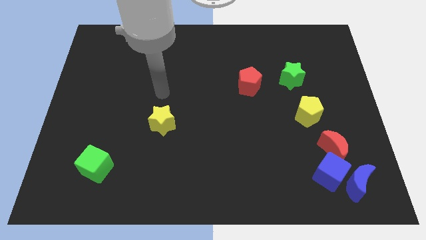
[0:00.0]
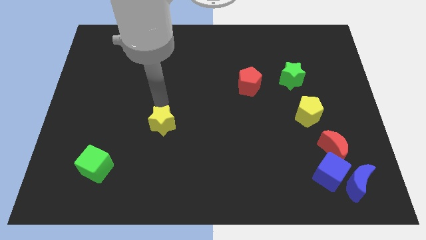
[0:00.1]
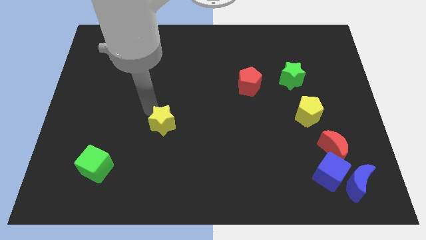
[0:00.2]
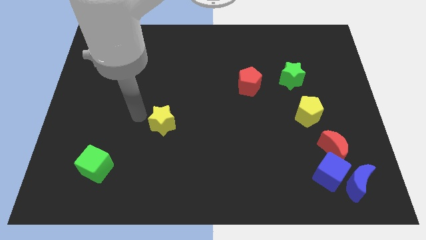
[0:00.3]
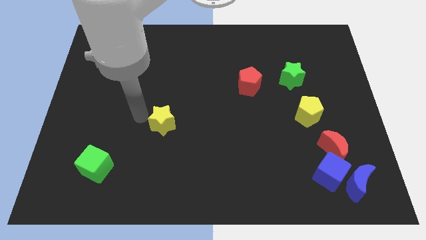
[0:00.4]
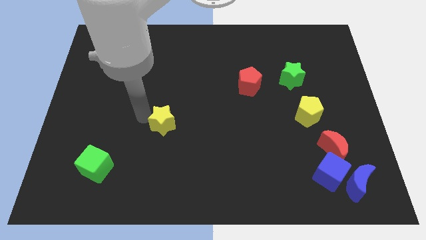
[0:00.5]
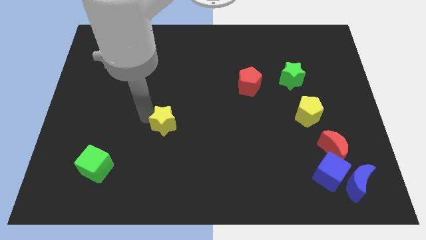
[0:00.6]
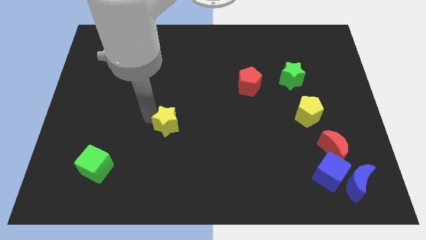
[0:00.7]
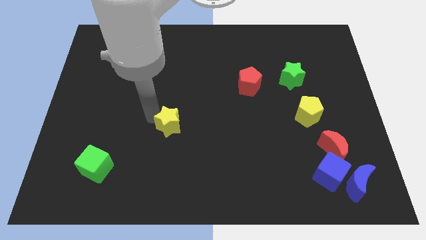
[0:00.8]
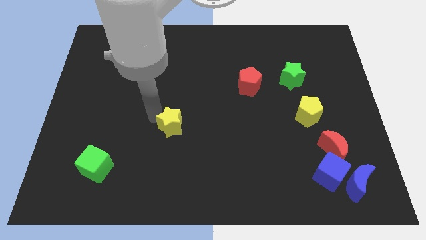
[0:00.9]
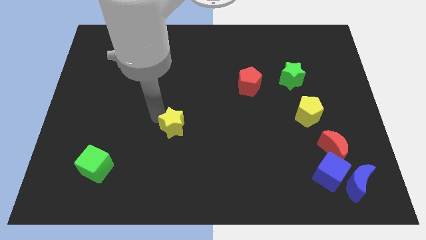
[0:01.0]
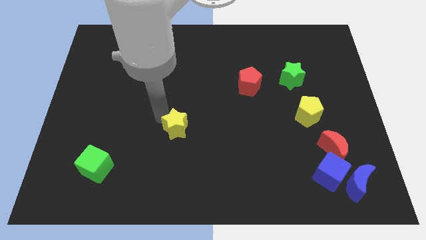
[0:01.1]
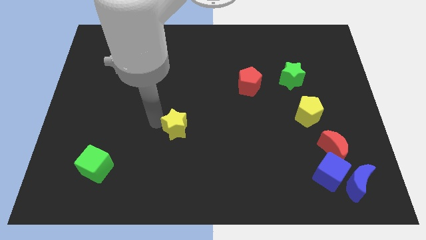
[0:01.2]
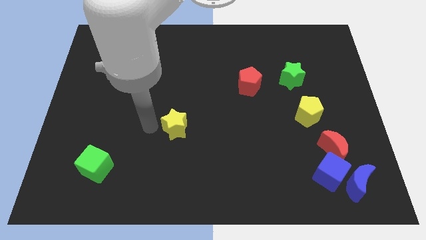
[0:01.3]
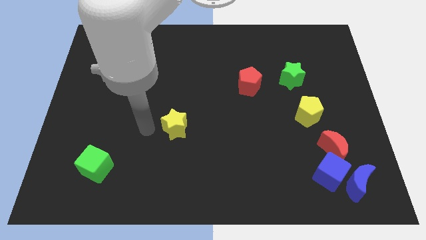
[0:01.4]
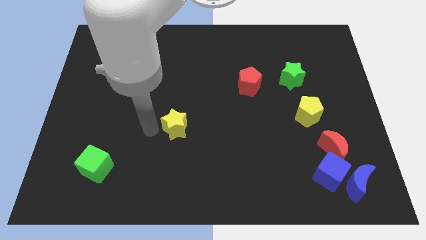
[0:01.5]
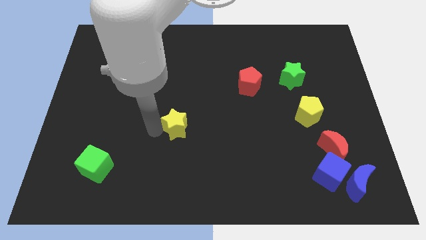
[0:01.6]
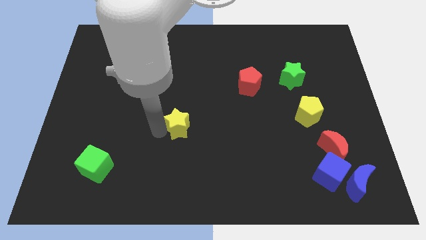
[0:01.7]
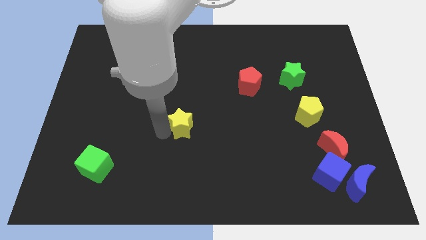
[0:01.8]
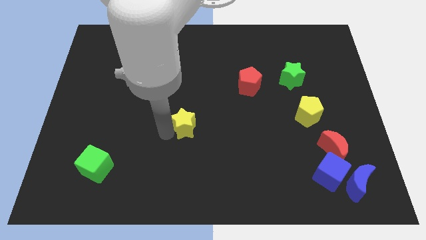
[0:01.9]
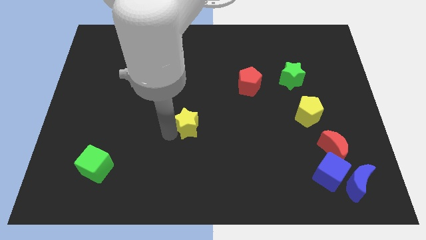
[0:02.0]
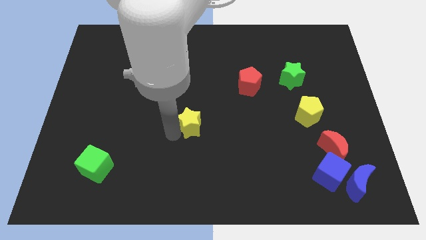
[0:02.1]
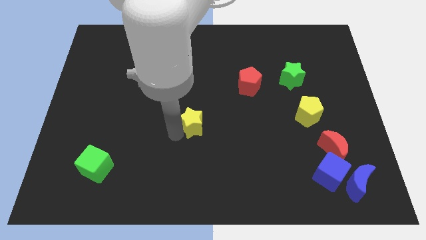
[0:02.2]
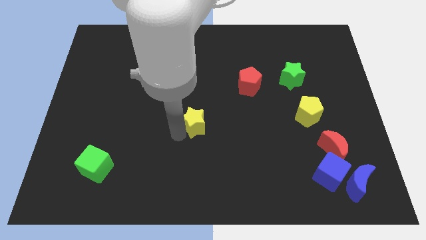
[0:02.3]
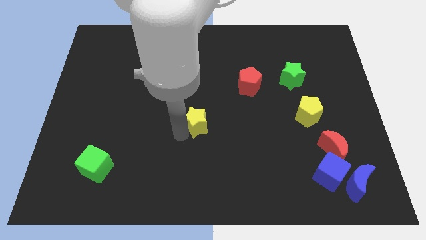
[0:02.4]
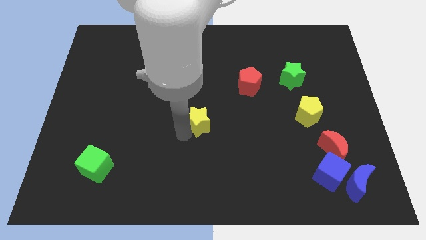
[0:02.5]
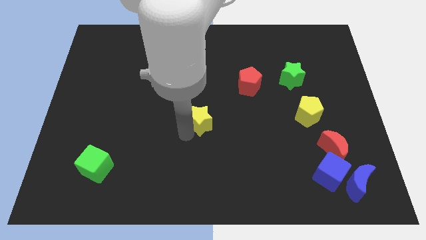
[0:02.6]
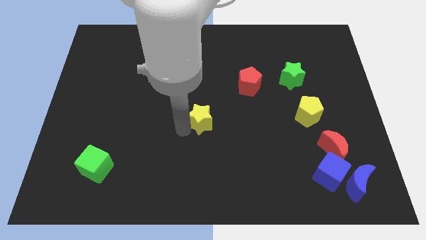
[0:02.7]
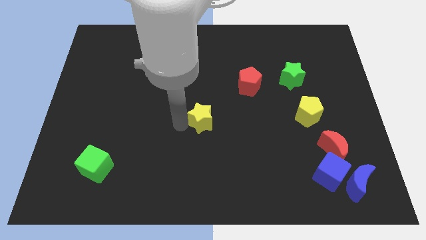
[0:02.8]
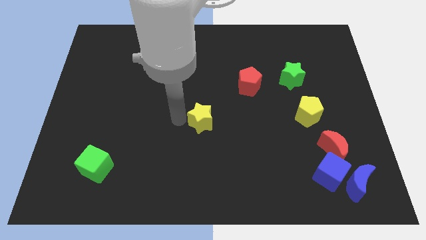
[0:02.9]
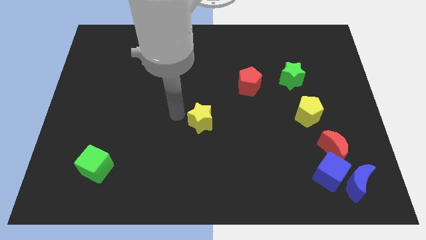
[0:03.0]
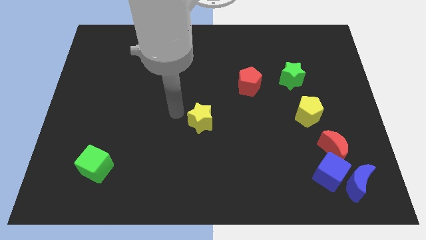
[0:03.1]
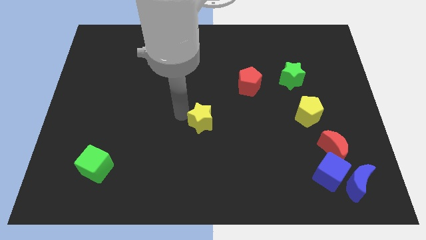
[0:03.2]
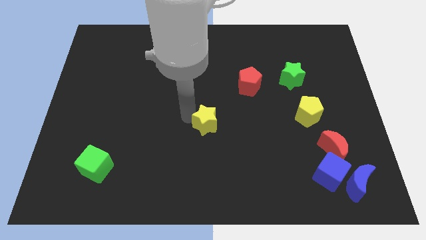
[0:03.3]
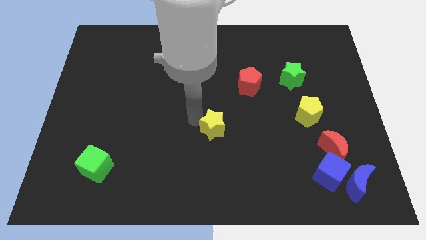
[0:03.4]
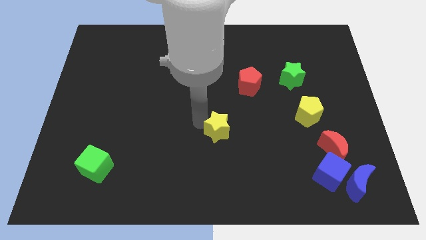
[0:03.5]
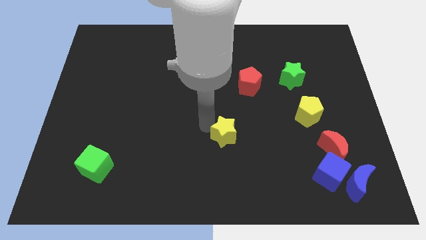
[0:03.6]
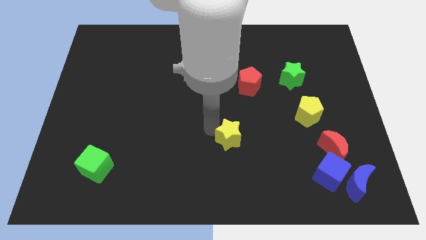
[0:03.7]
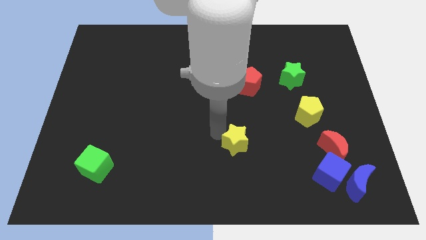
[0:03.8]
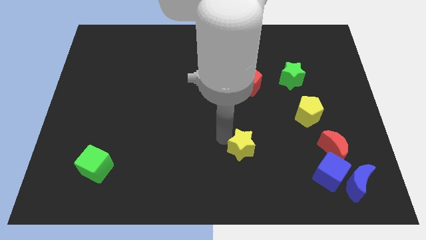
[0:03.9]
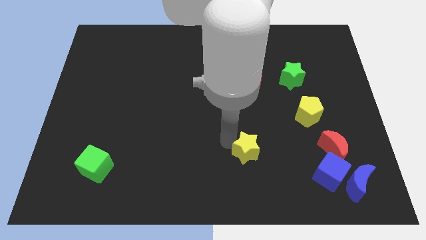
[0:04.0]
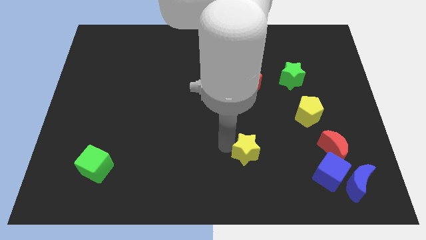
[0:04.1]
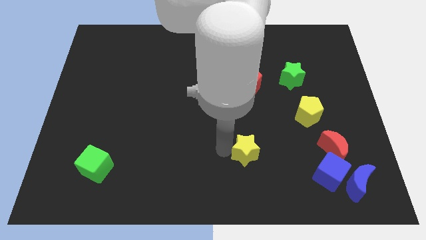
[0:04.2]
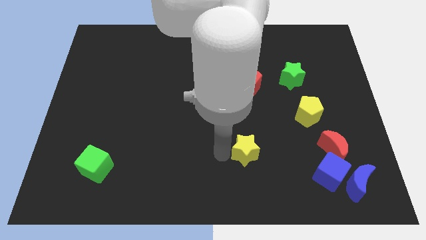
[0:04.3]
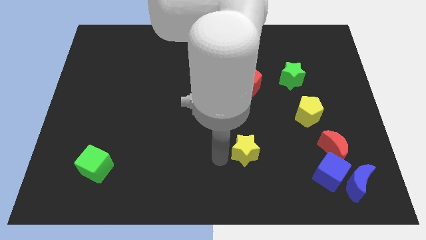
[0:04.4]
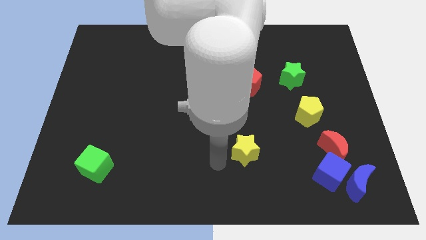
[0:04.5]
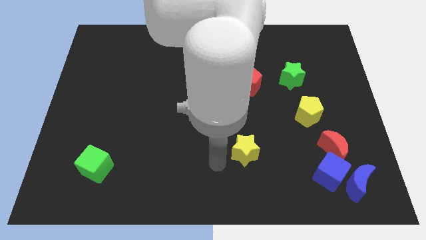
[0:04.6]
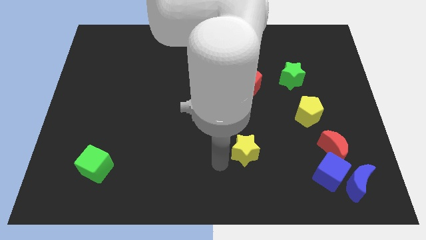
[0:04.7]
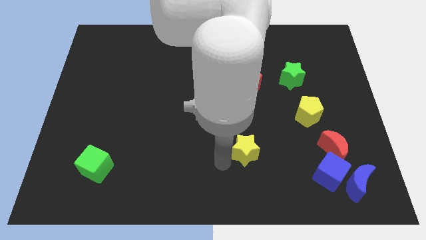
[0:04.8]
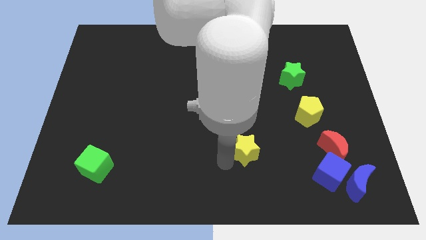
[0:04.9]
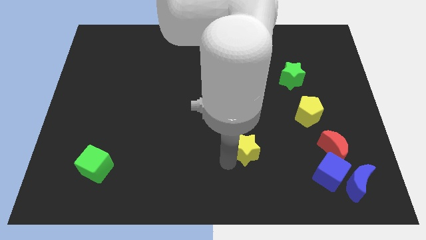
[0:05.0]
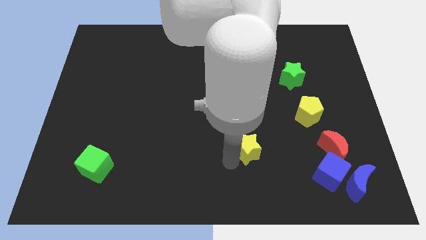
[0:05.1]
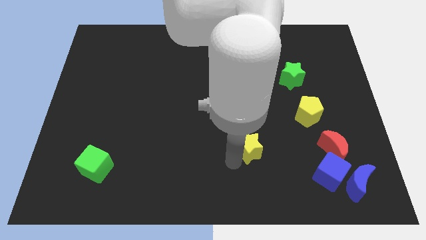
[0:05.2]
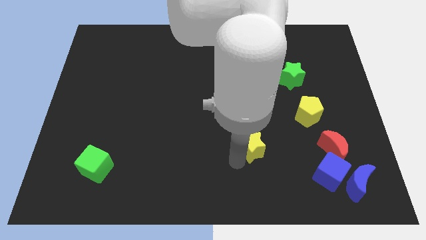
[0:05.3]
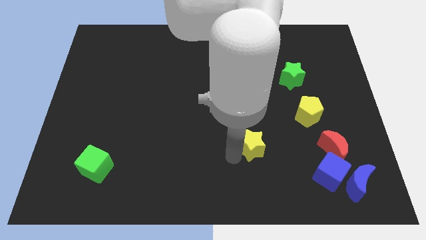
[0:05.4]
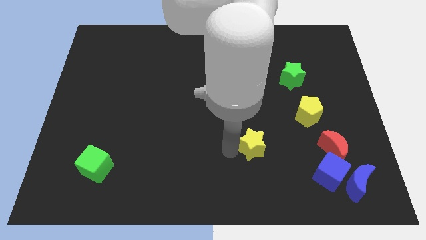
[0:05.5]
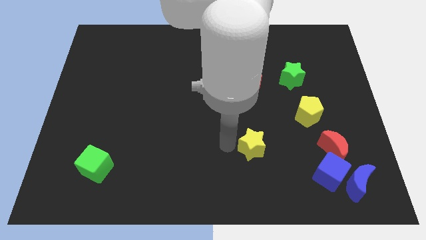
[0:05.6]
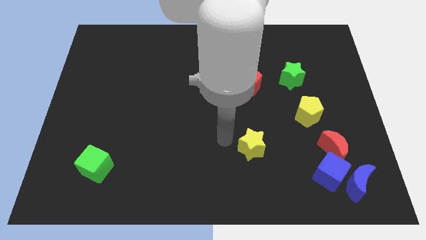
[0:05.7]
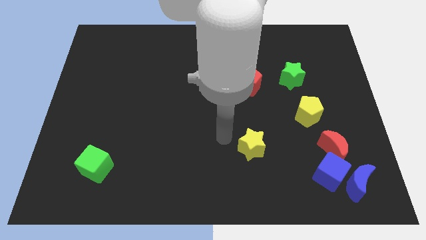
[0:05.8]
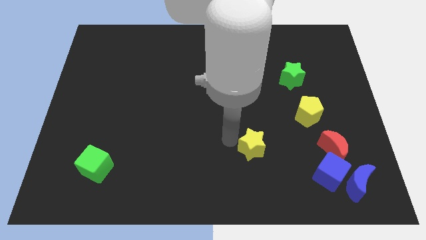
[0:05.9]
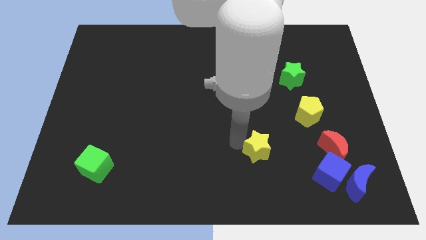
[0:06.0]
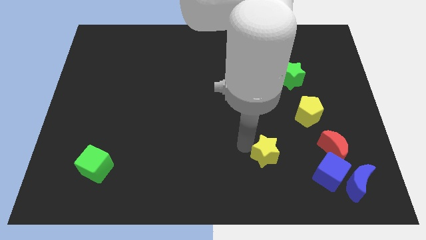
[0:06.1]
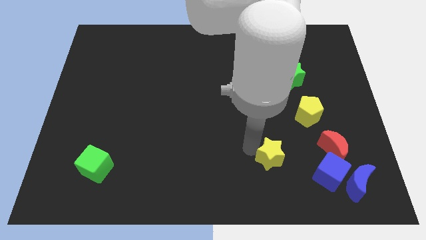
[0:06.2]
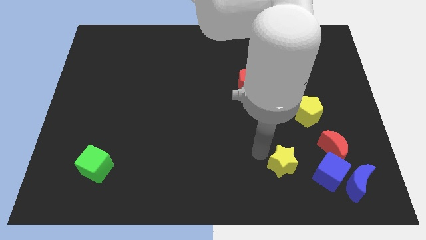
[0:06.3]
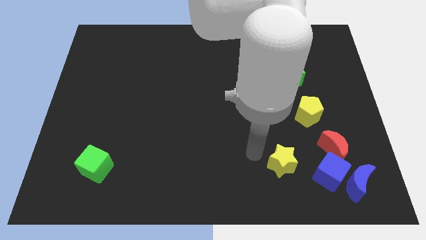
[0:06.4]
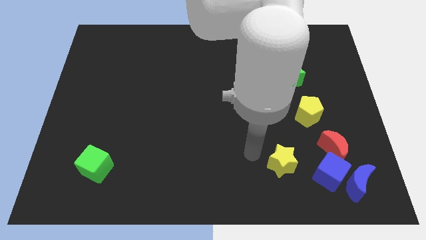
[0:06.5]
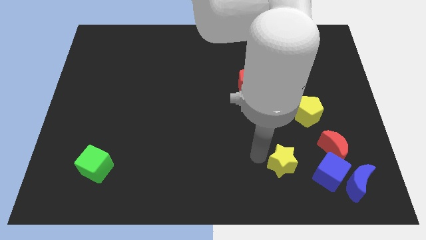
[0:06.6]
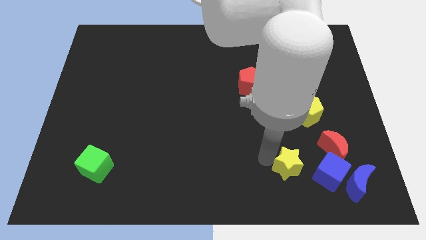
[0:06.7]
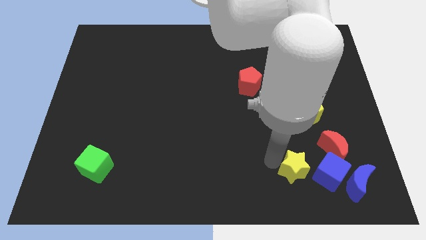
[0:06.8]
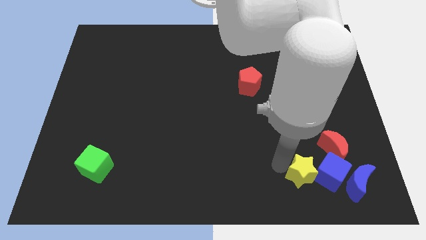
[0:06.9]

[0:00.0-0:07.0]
move the yellow star towards the blue cube
